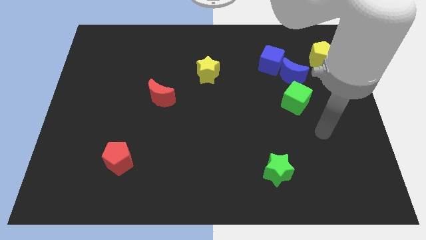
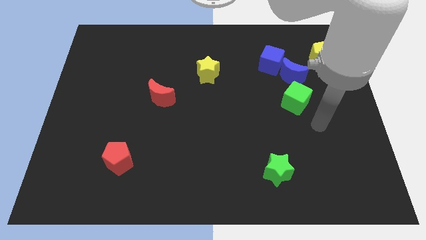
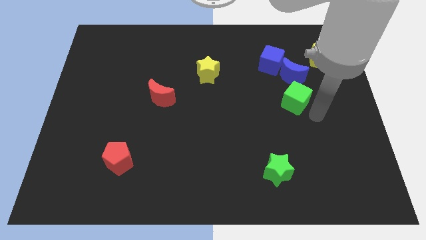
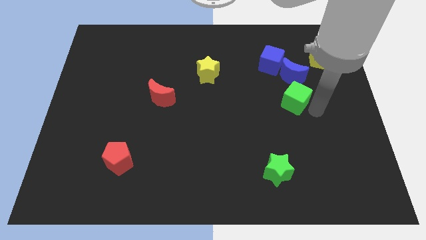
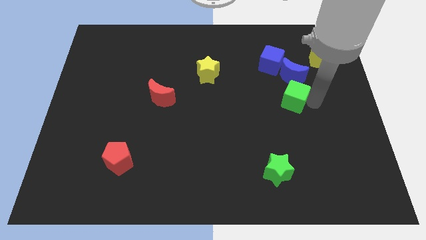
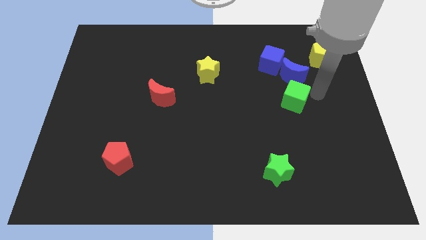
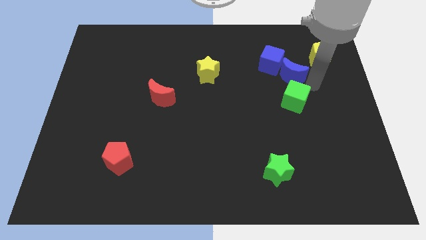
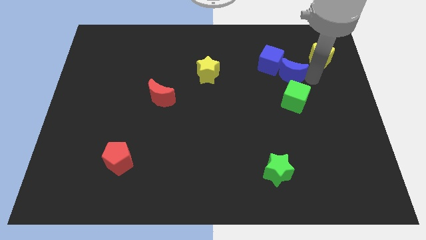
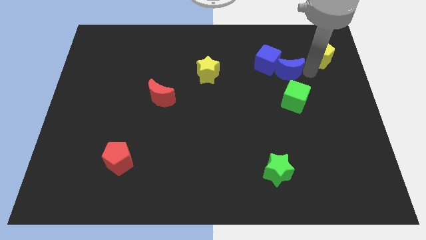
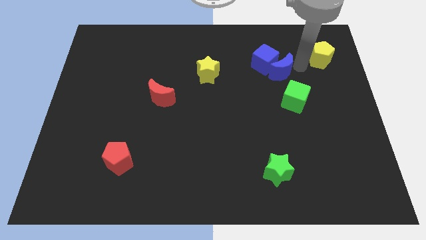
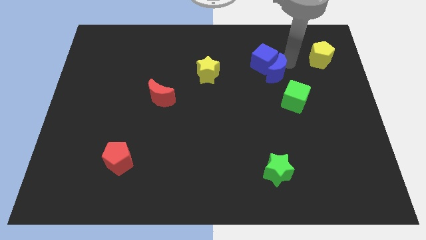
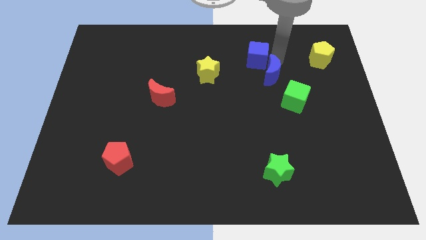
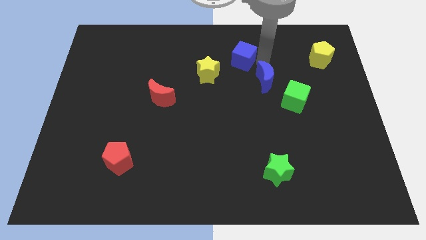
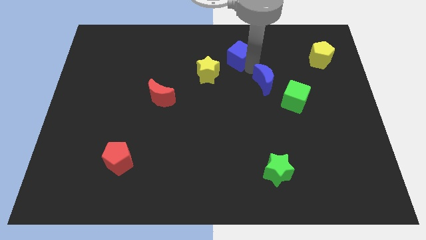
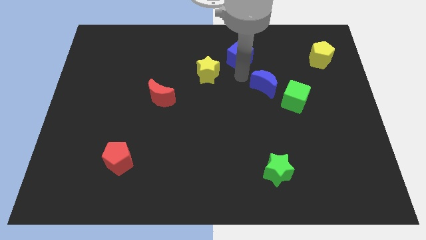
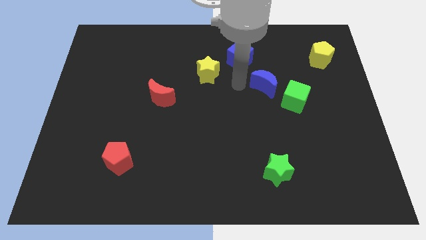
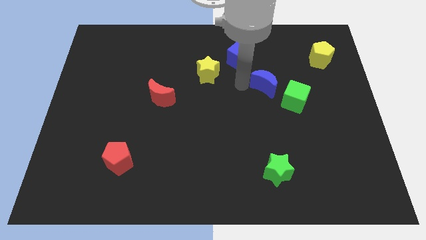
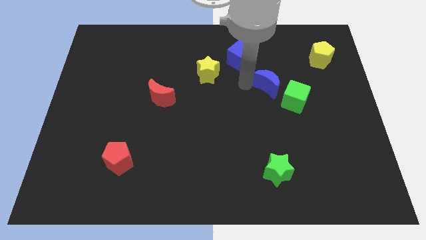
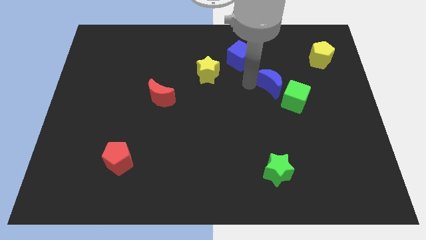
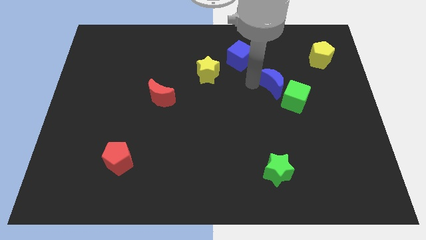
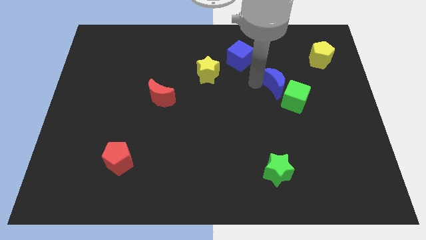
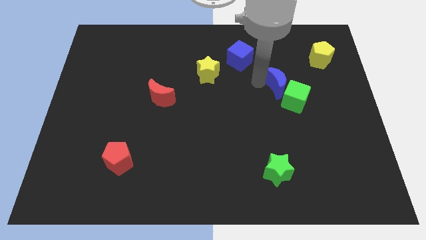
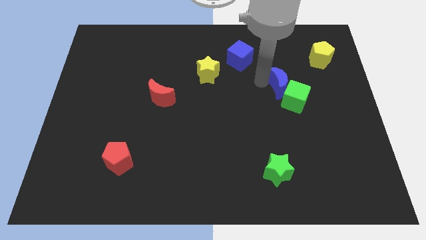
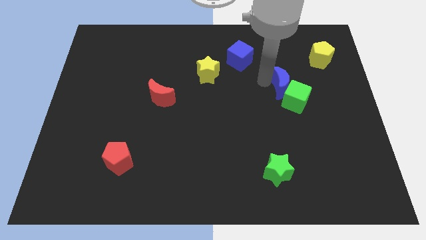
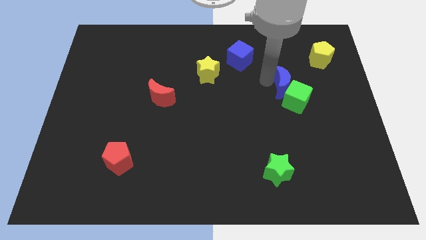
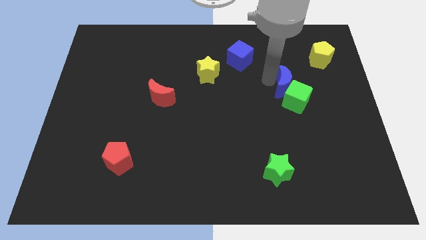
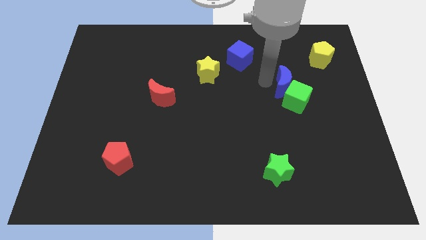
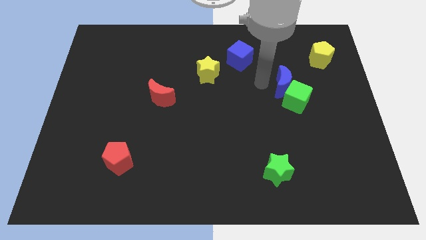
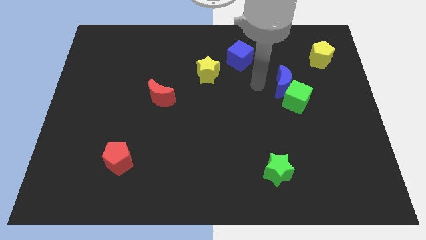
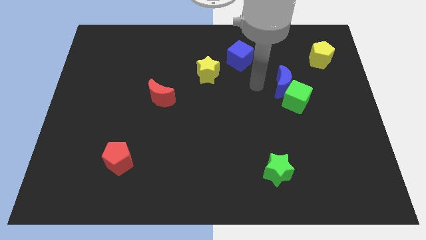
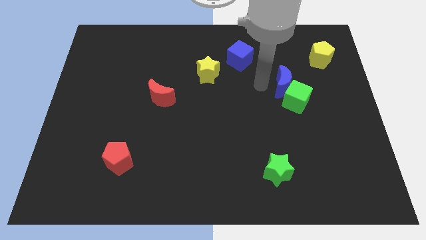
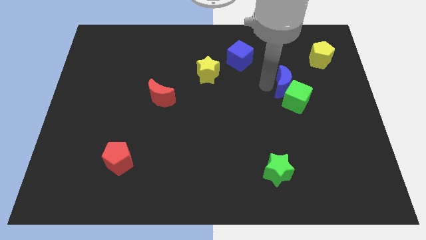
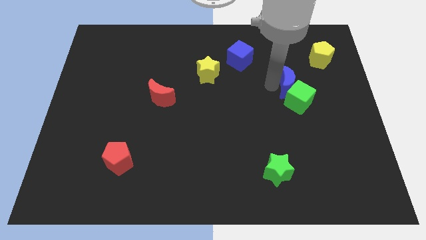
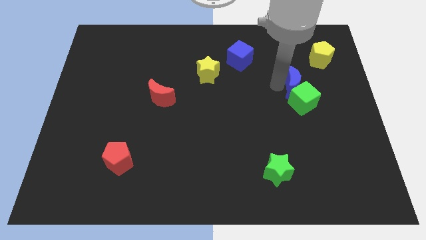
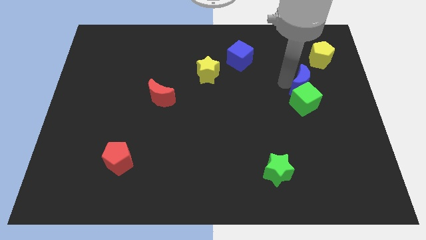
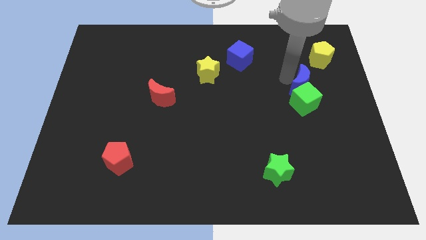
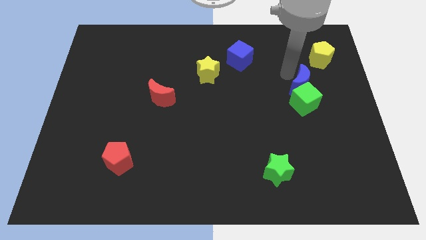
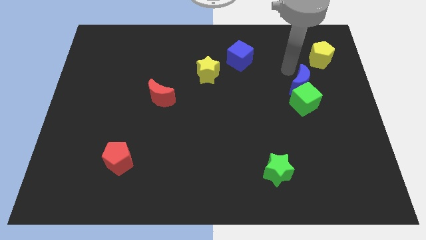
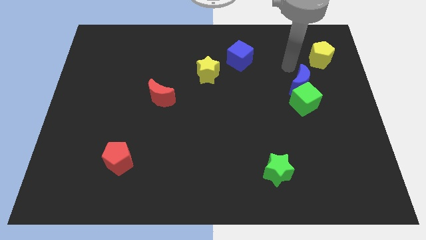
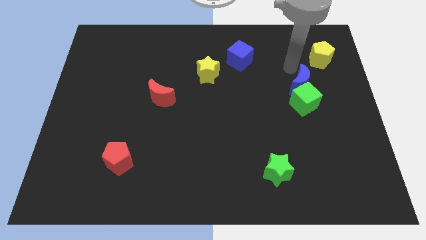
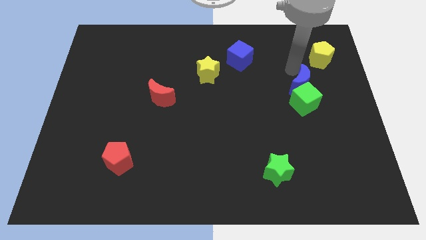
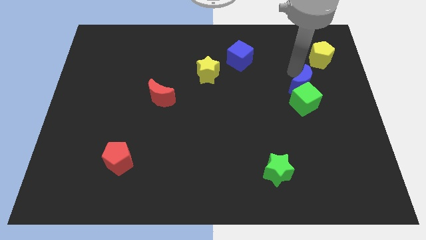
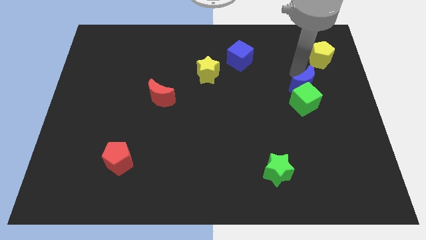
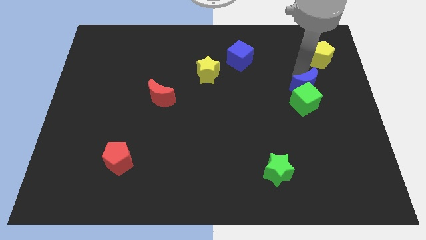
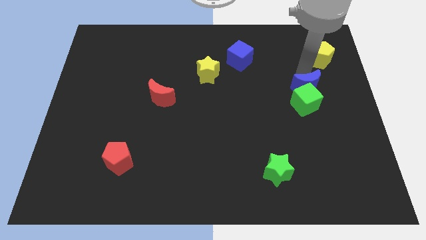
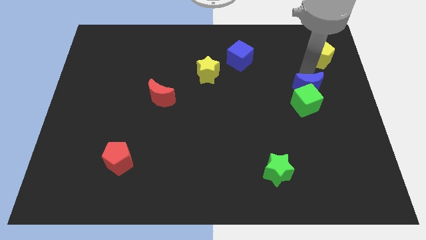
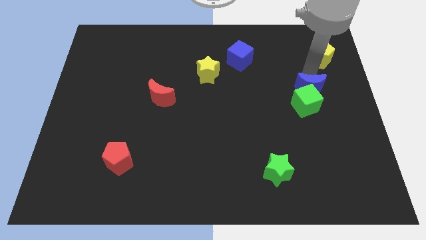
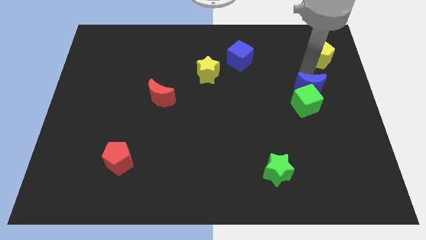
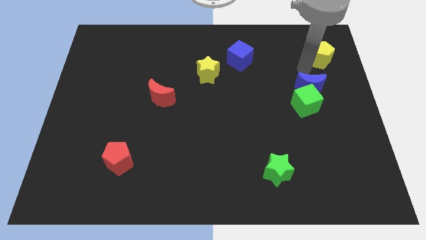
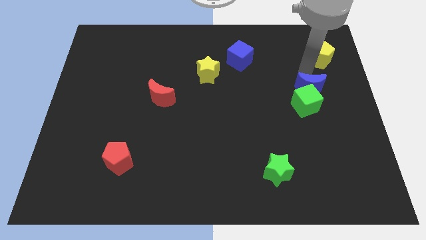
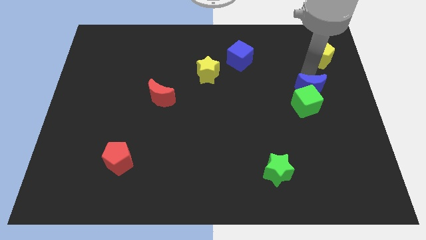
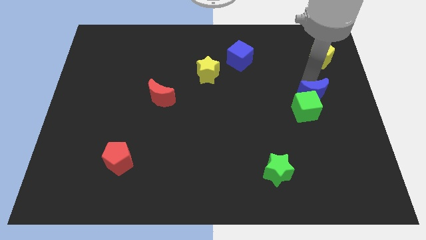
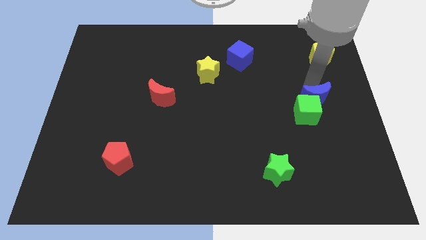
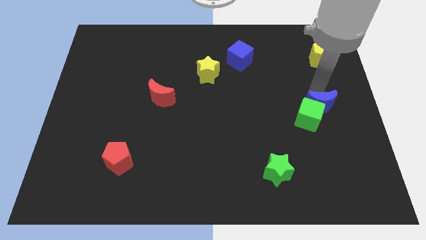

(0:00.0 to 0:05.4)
push the blue moon a little downwards

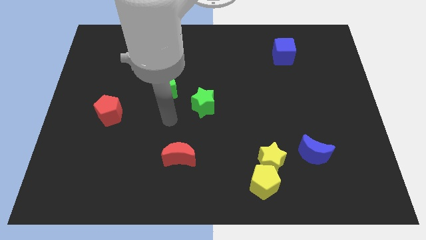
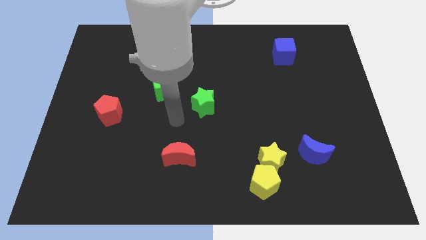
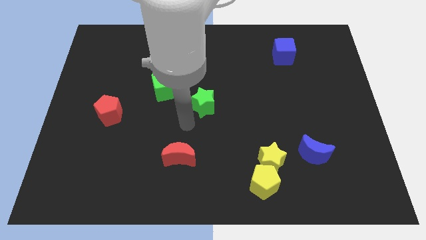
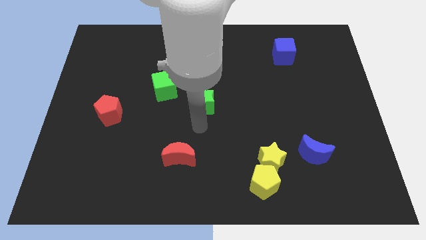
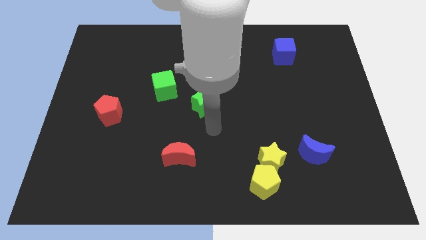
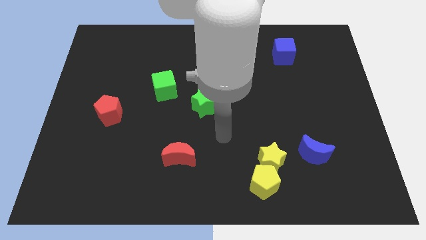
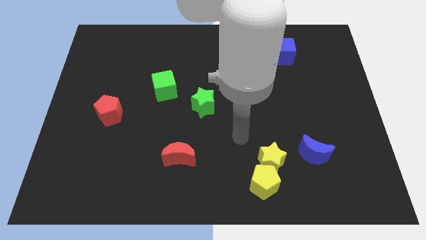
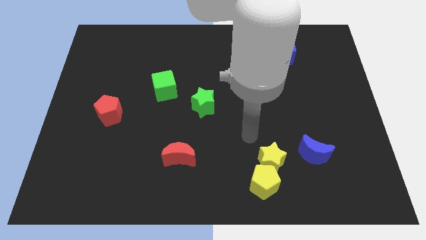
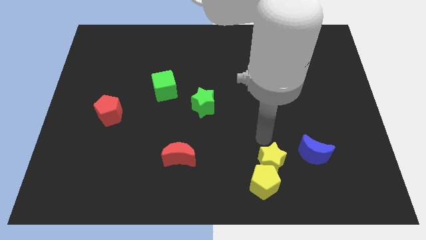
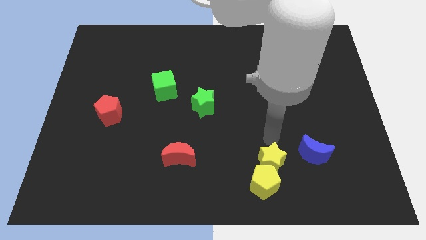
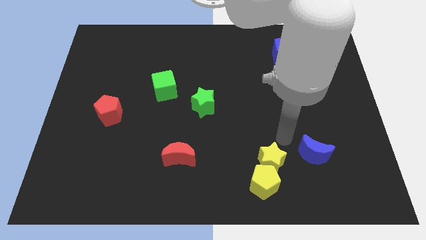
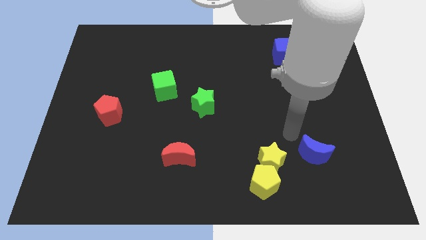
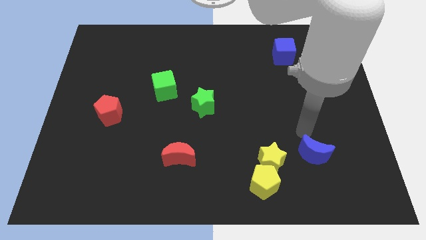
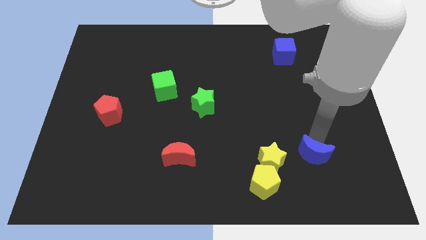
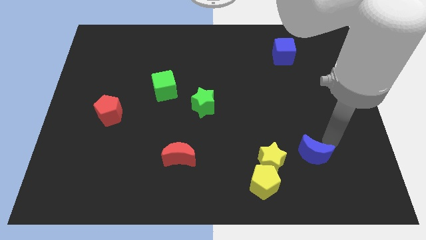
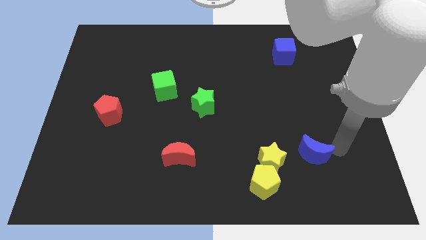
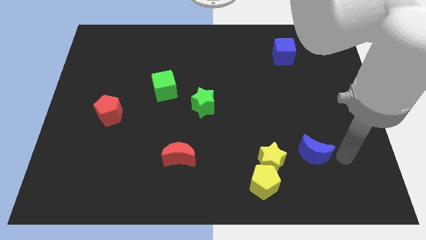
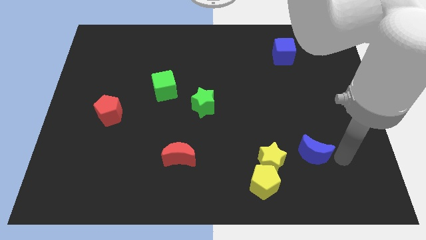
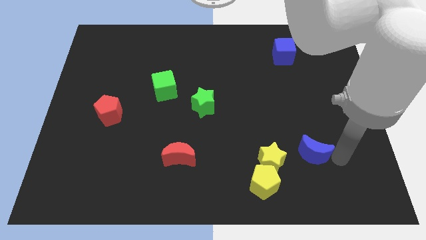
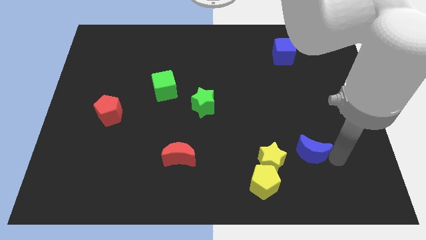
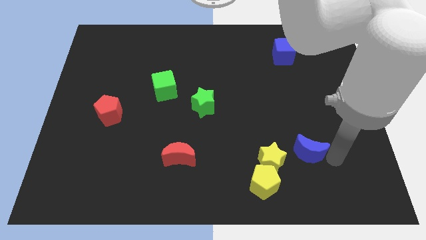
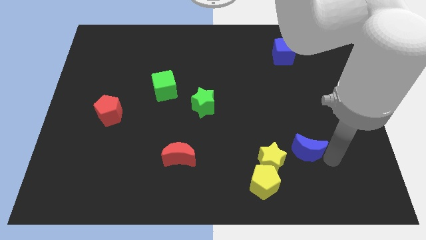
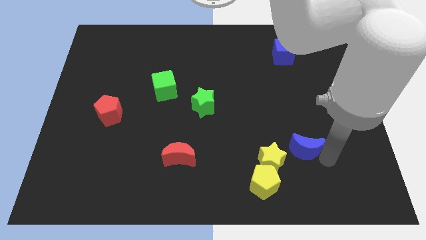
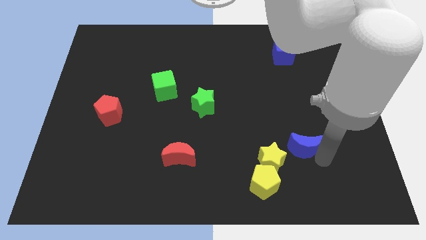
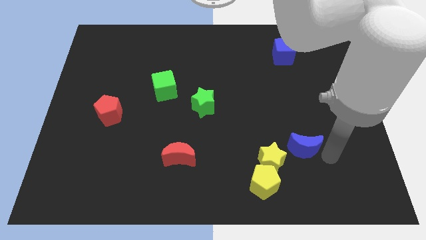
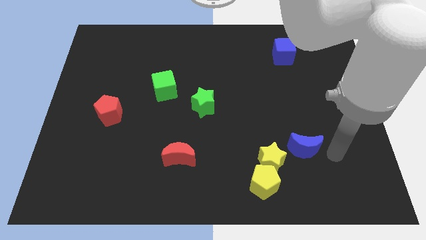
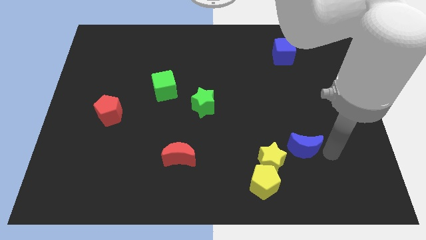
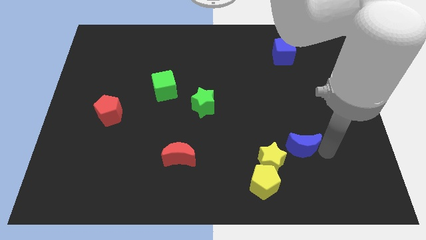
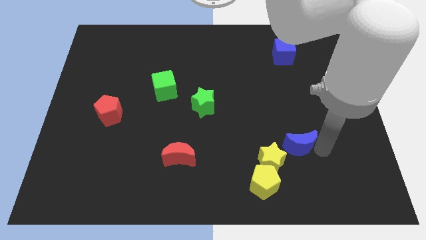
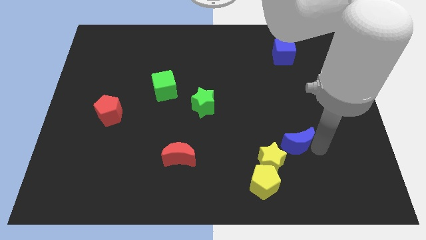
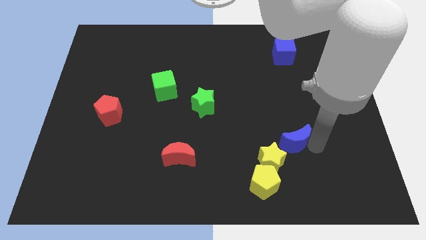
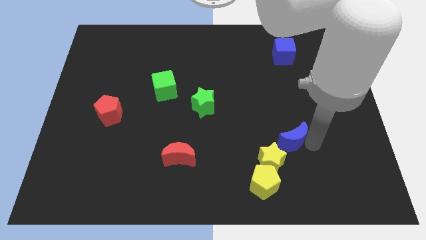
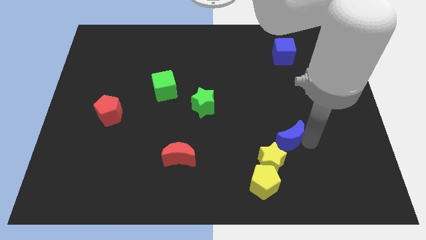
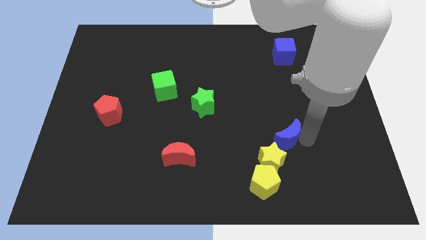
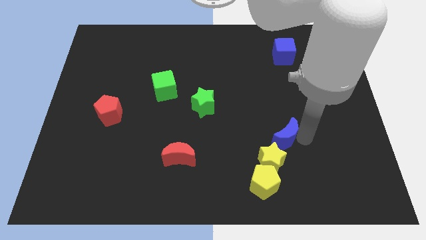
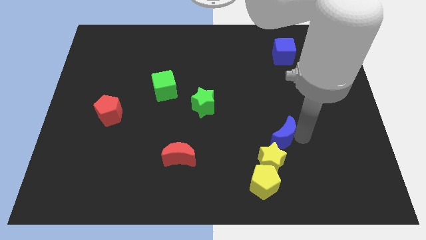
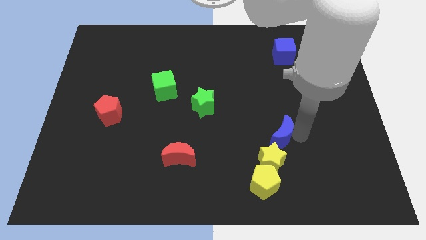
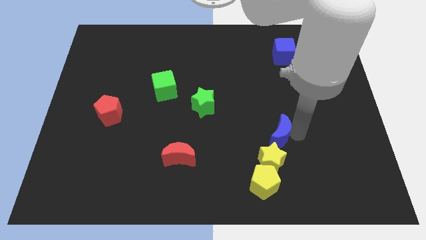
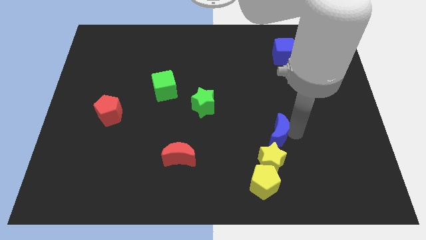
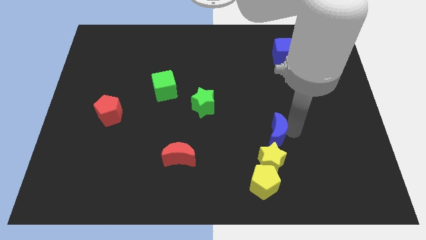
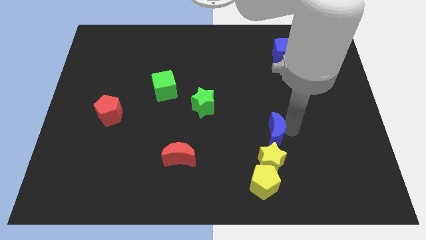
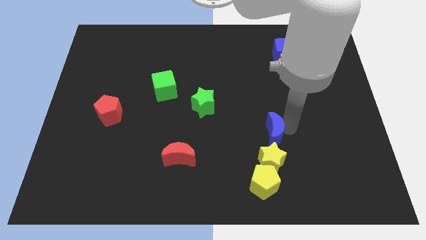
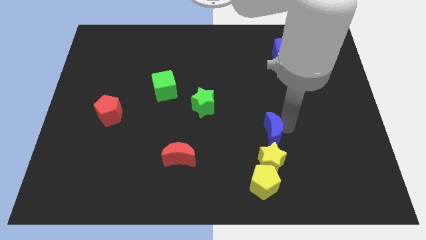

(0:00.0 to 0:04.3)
move the blue moon a little bit to the left
